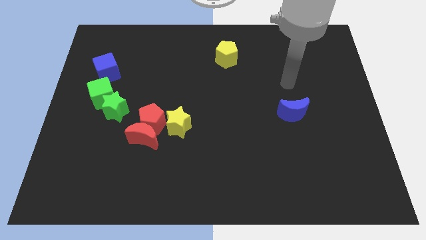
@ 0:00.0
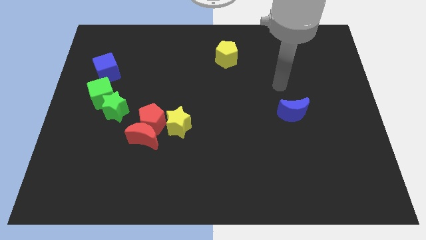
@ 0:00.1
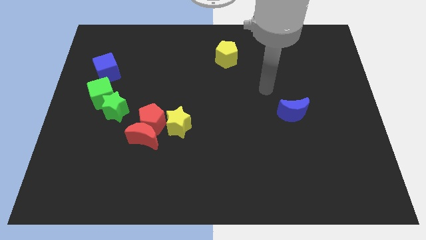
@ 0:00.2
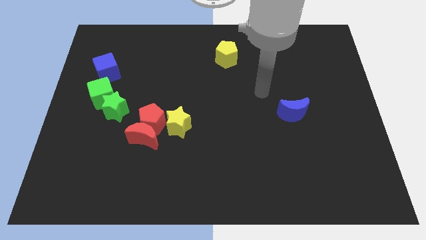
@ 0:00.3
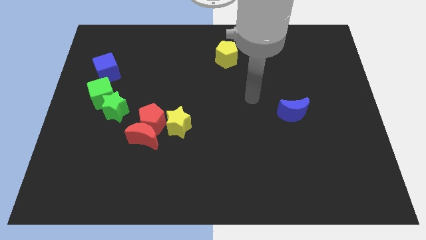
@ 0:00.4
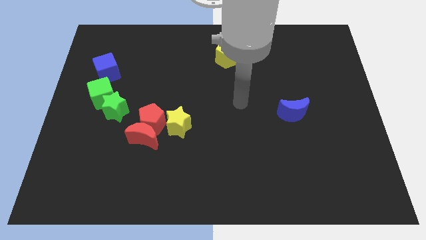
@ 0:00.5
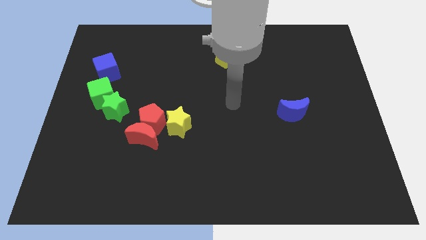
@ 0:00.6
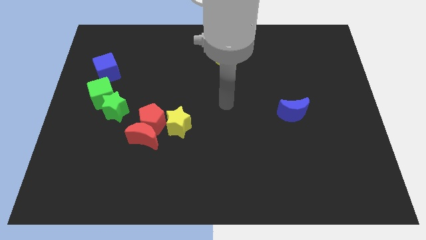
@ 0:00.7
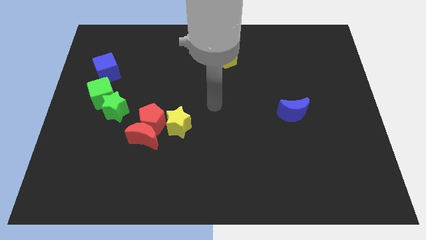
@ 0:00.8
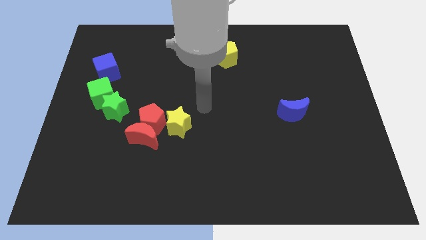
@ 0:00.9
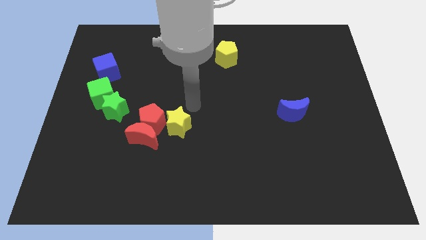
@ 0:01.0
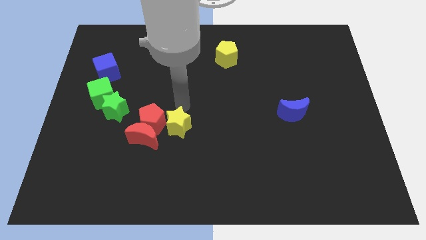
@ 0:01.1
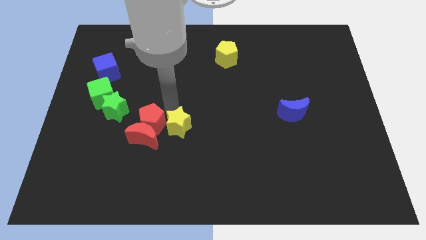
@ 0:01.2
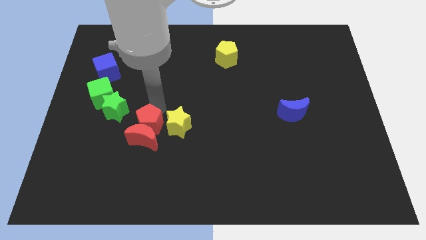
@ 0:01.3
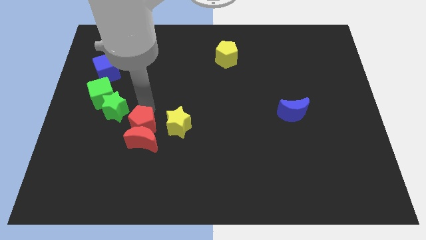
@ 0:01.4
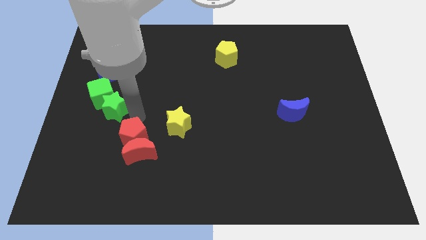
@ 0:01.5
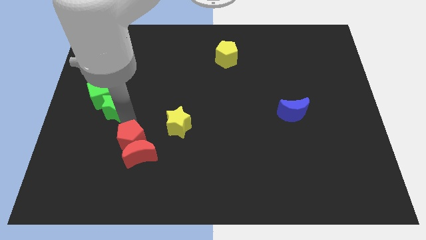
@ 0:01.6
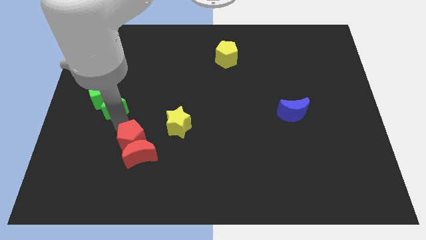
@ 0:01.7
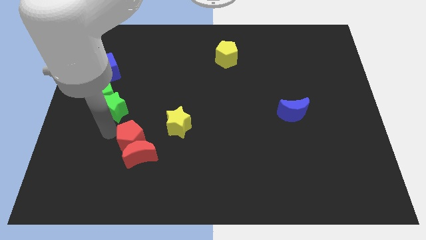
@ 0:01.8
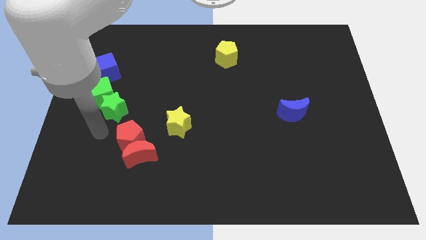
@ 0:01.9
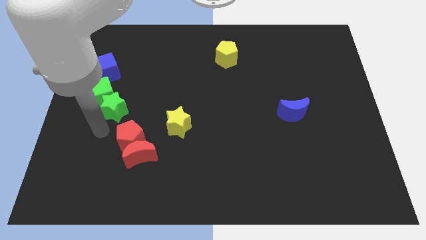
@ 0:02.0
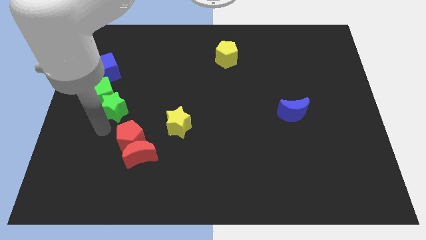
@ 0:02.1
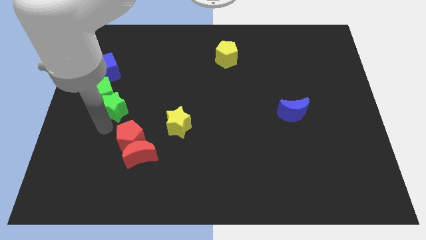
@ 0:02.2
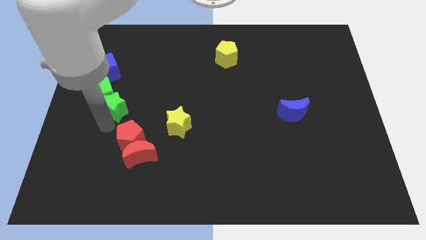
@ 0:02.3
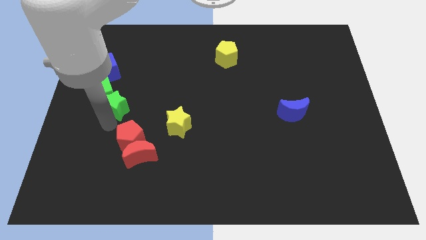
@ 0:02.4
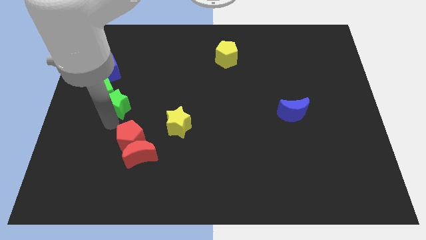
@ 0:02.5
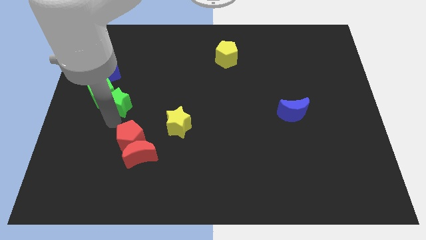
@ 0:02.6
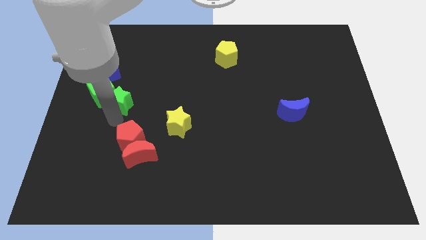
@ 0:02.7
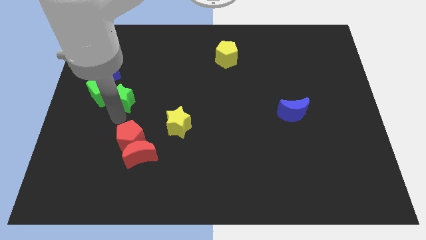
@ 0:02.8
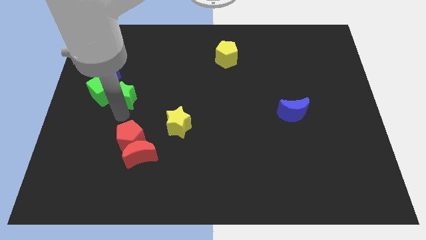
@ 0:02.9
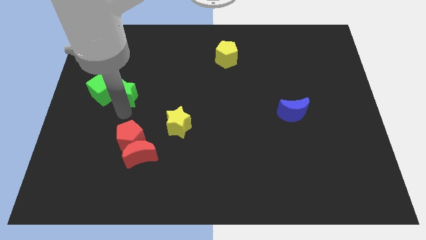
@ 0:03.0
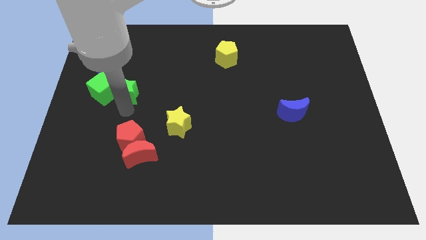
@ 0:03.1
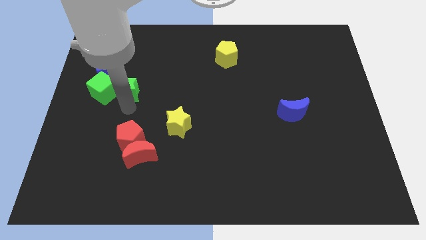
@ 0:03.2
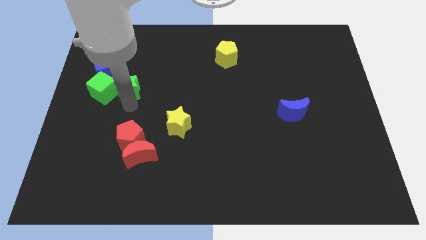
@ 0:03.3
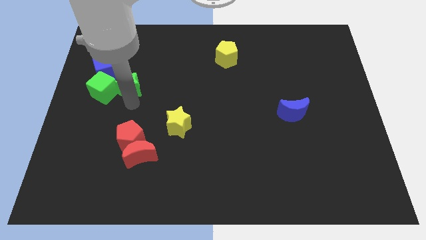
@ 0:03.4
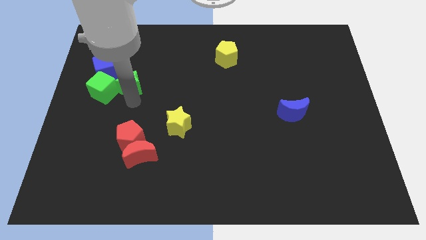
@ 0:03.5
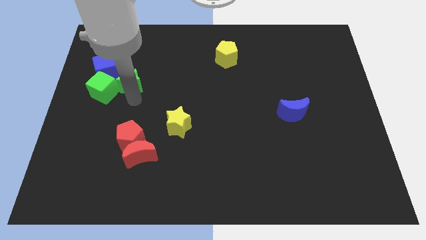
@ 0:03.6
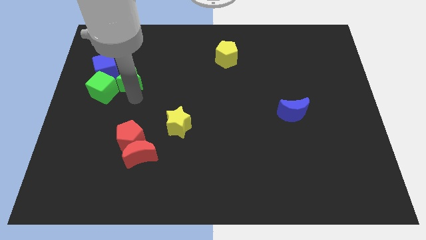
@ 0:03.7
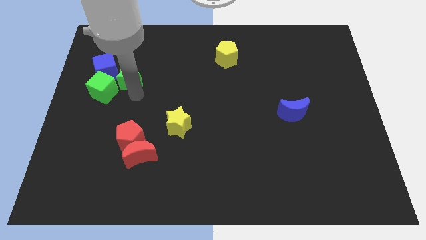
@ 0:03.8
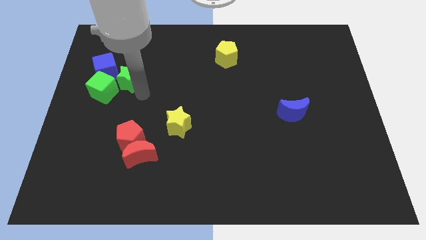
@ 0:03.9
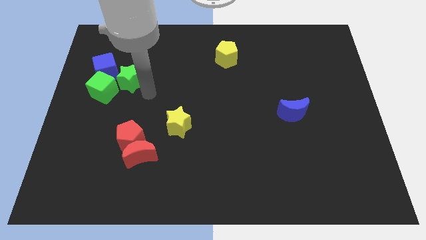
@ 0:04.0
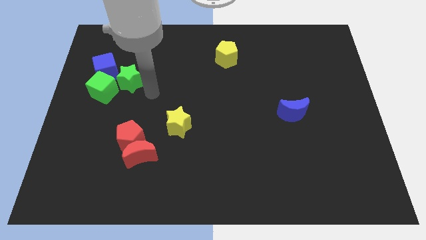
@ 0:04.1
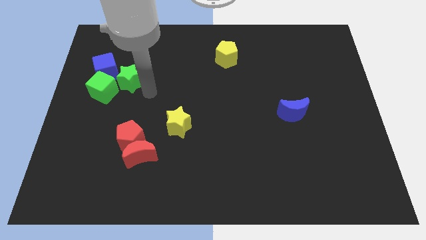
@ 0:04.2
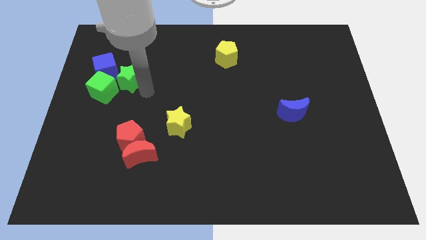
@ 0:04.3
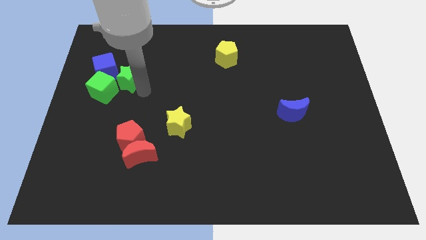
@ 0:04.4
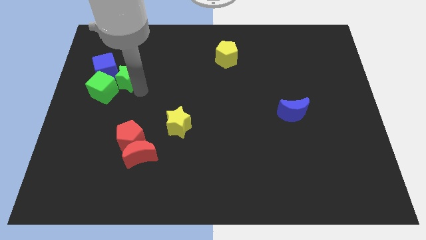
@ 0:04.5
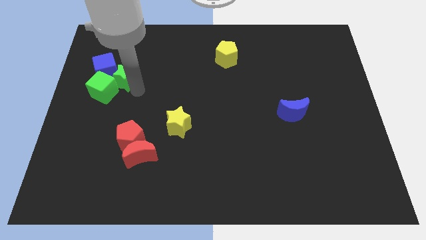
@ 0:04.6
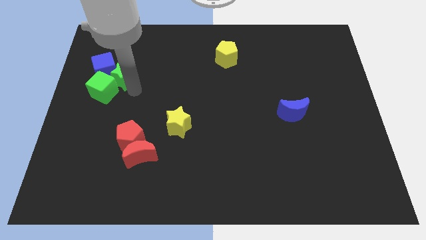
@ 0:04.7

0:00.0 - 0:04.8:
push the green star close to the blue cube

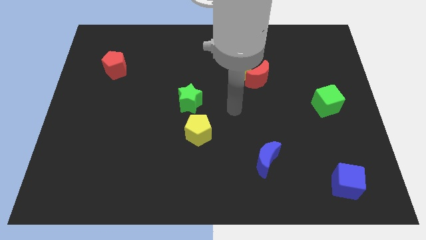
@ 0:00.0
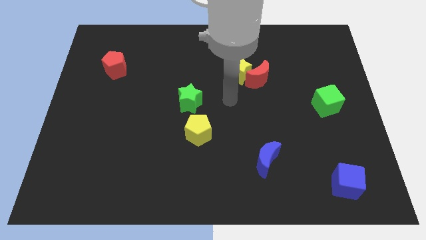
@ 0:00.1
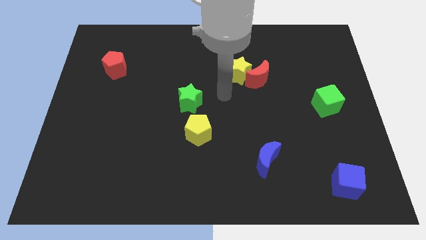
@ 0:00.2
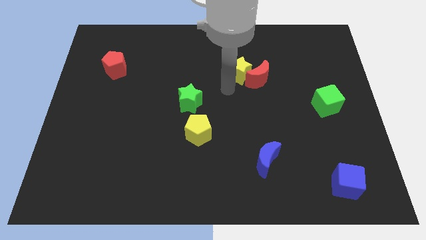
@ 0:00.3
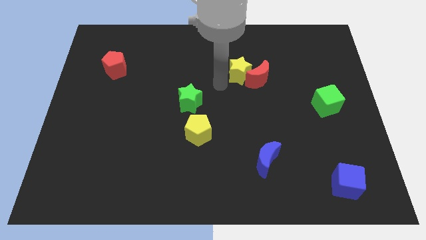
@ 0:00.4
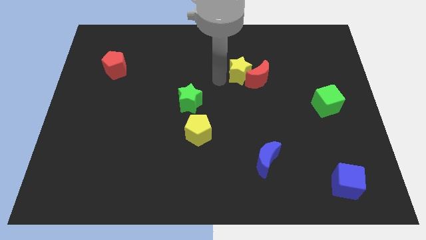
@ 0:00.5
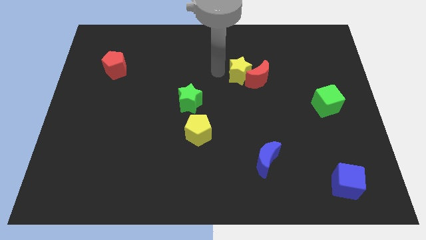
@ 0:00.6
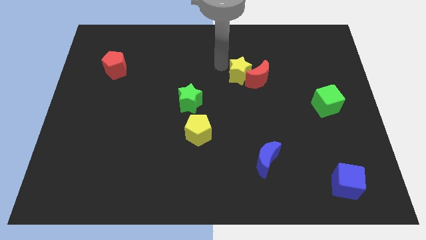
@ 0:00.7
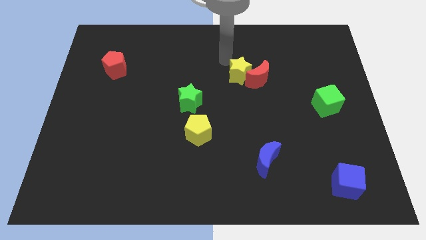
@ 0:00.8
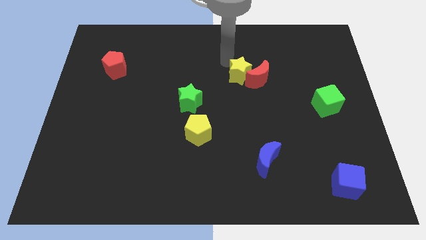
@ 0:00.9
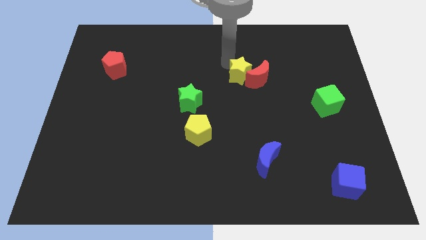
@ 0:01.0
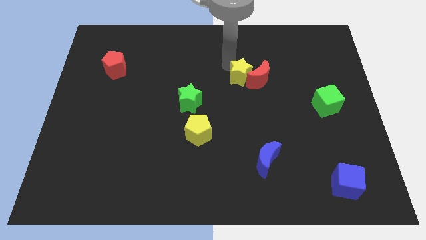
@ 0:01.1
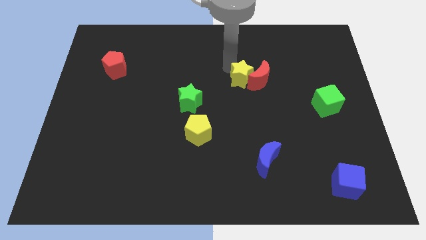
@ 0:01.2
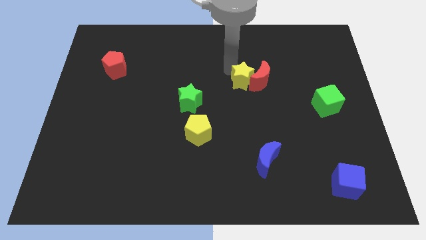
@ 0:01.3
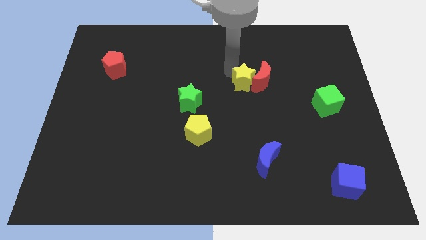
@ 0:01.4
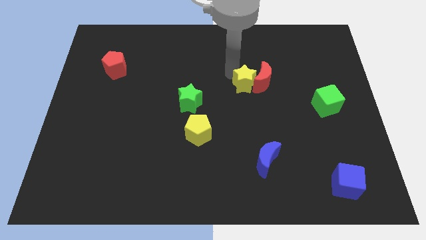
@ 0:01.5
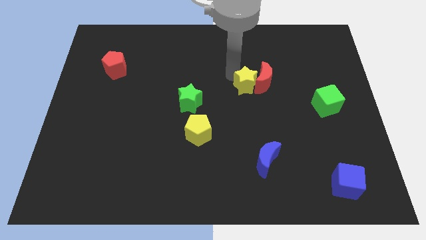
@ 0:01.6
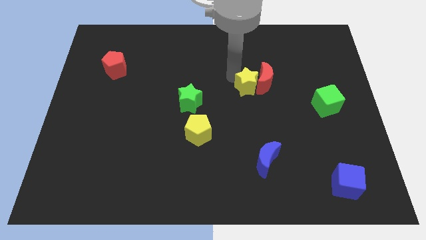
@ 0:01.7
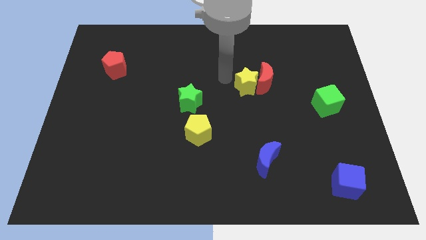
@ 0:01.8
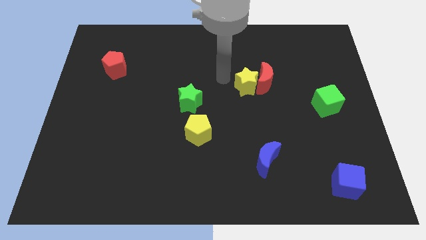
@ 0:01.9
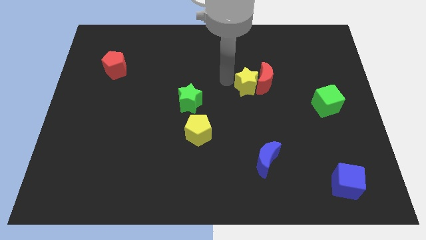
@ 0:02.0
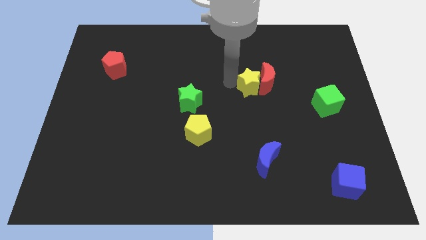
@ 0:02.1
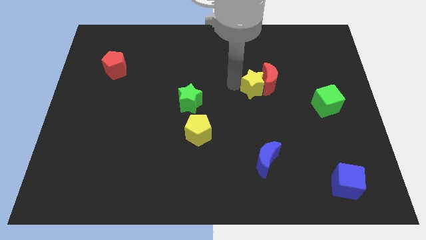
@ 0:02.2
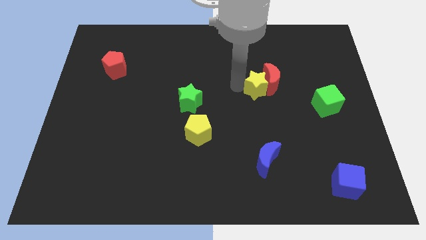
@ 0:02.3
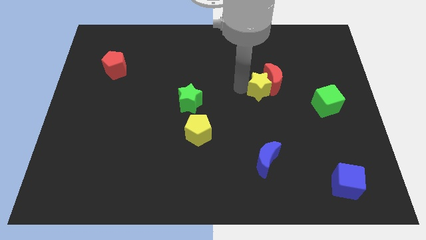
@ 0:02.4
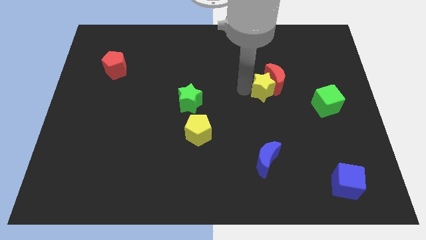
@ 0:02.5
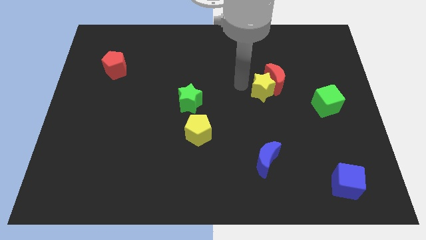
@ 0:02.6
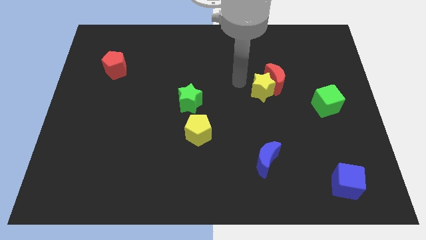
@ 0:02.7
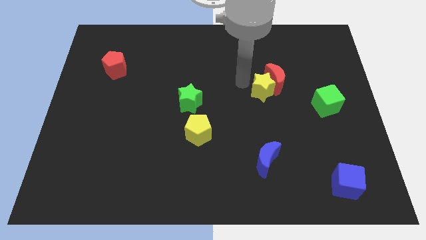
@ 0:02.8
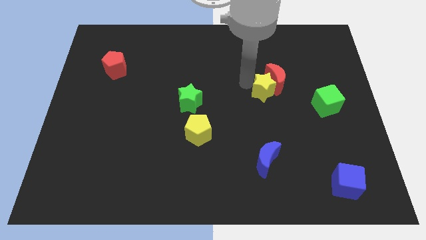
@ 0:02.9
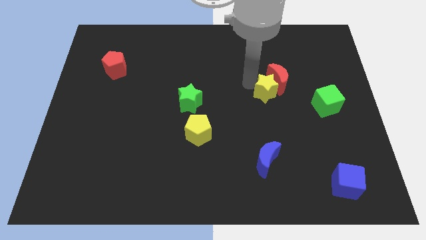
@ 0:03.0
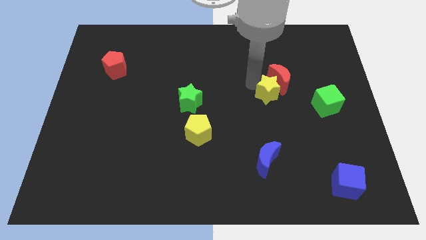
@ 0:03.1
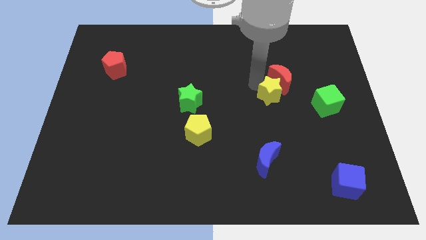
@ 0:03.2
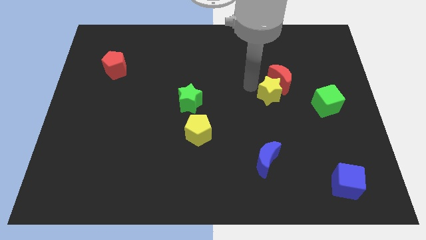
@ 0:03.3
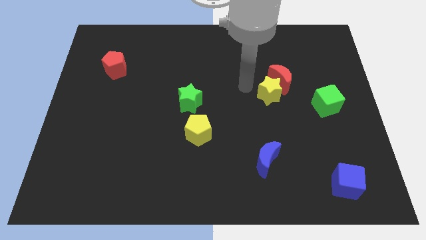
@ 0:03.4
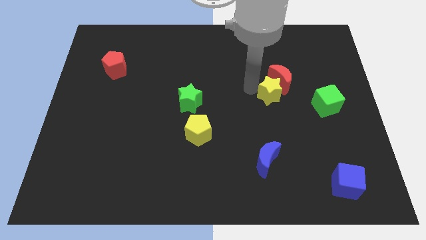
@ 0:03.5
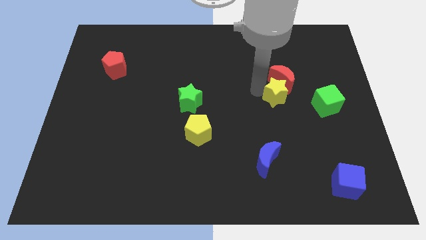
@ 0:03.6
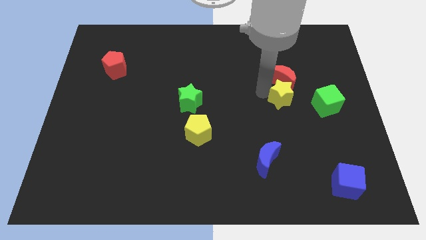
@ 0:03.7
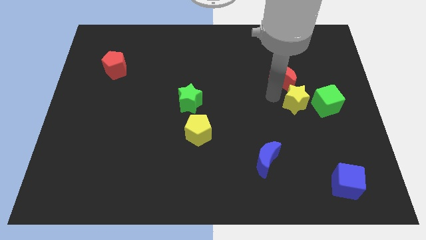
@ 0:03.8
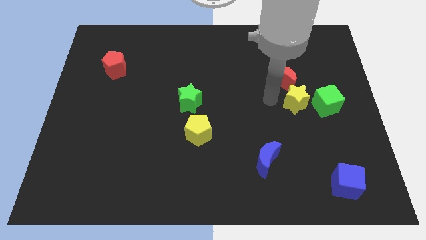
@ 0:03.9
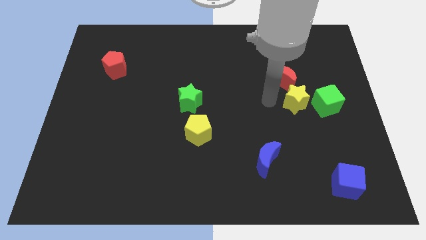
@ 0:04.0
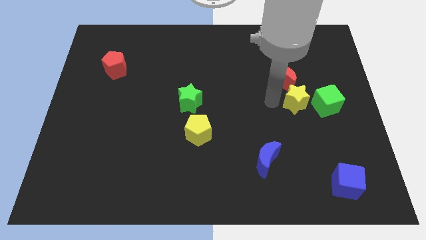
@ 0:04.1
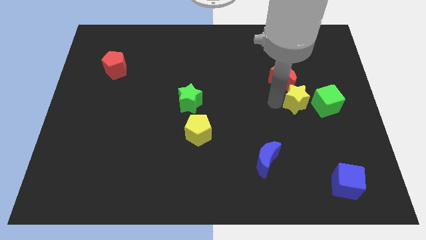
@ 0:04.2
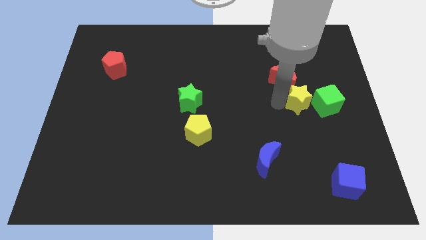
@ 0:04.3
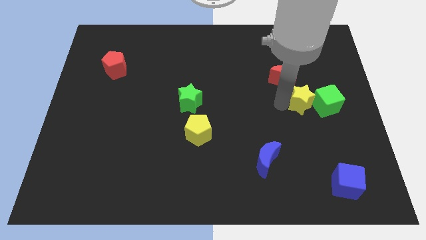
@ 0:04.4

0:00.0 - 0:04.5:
slide the yellow star close to the green cube
